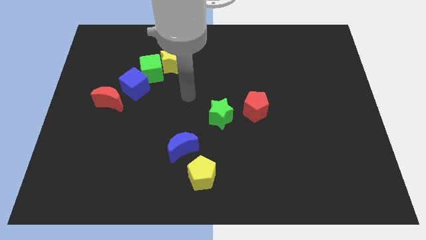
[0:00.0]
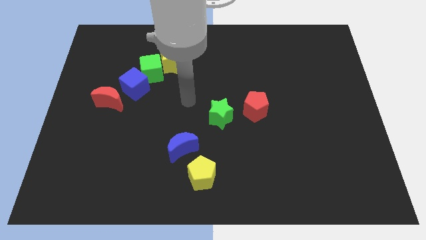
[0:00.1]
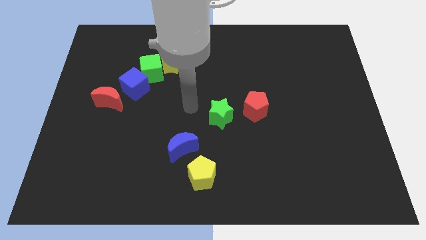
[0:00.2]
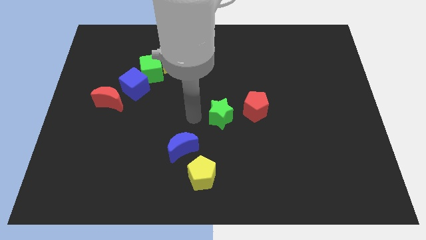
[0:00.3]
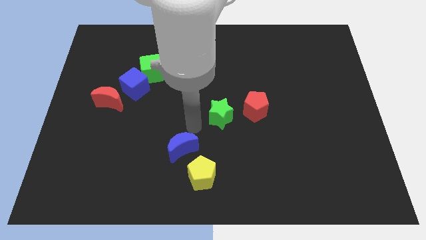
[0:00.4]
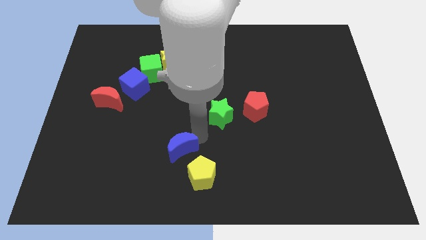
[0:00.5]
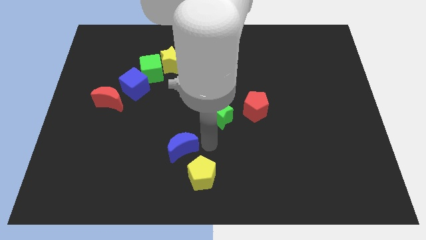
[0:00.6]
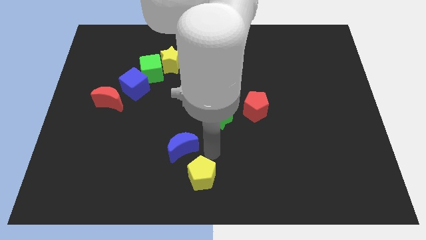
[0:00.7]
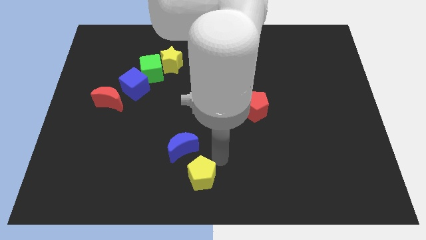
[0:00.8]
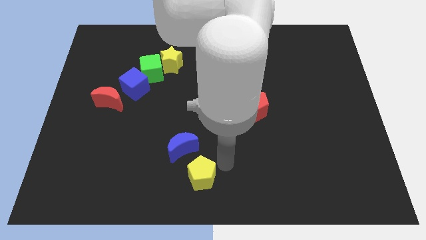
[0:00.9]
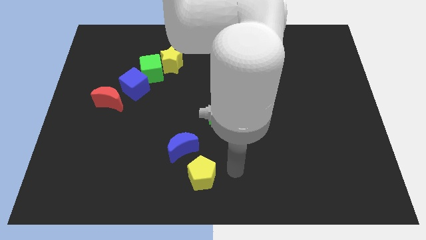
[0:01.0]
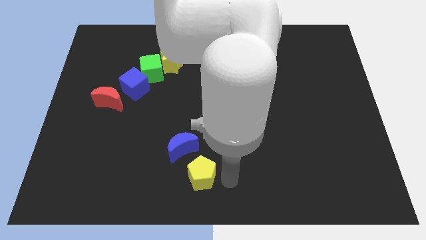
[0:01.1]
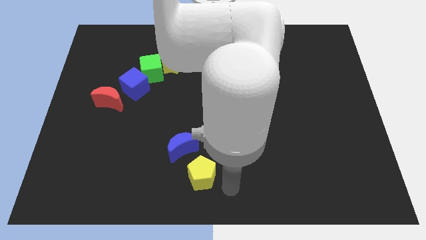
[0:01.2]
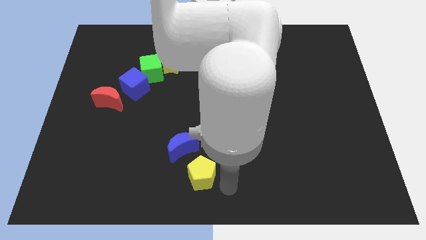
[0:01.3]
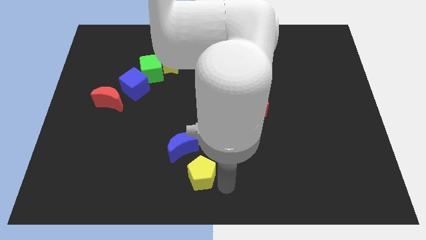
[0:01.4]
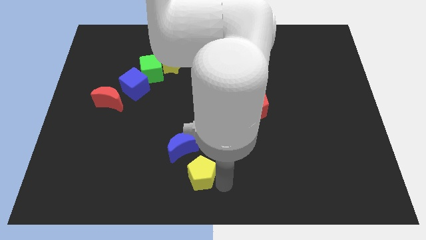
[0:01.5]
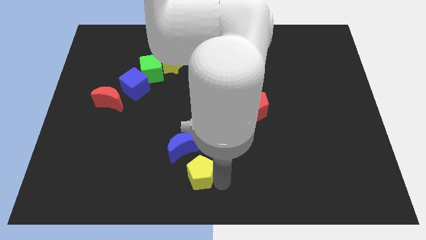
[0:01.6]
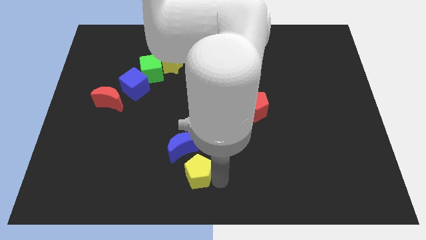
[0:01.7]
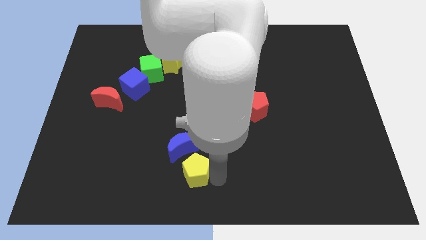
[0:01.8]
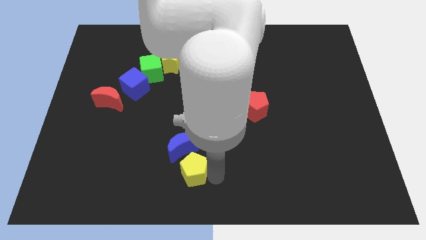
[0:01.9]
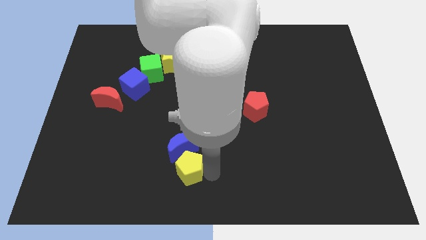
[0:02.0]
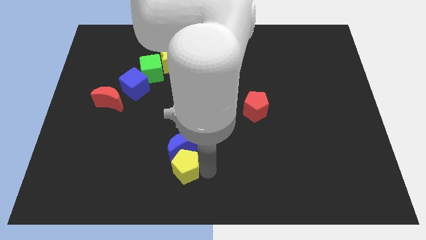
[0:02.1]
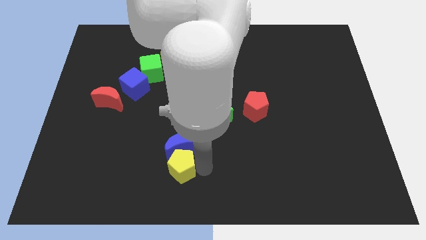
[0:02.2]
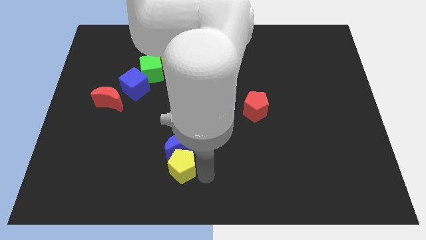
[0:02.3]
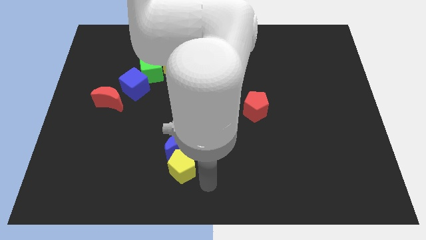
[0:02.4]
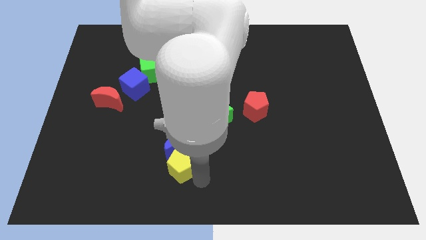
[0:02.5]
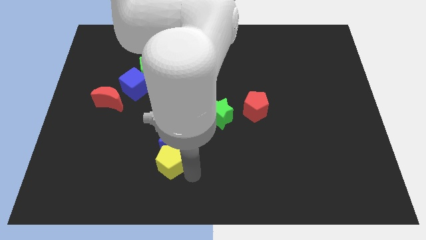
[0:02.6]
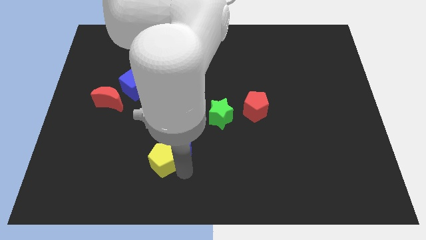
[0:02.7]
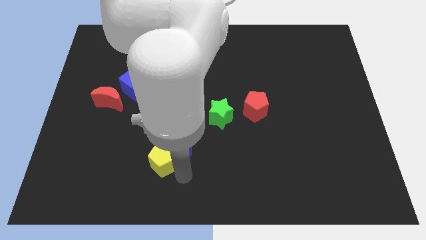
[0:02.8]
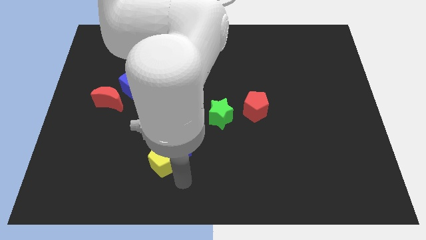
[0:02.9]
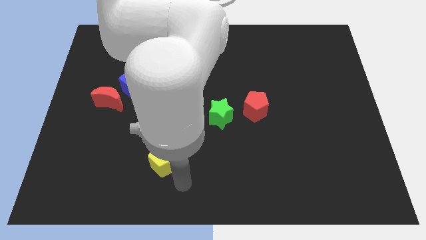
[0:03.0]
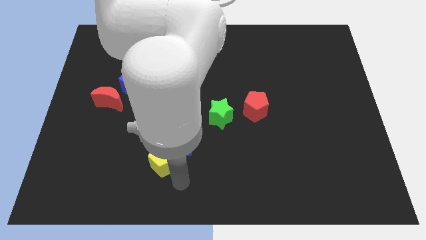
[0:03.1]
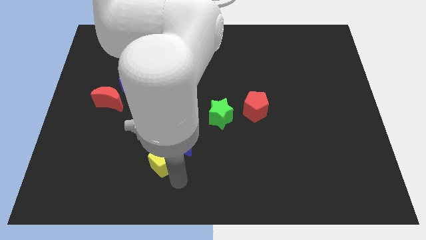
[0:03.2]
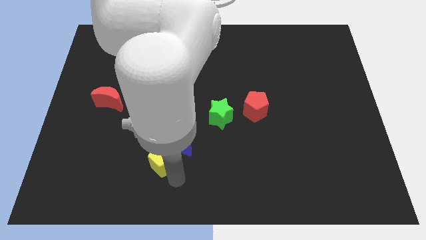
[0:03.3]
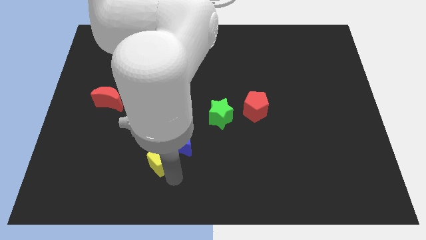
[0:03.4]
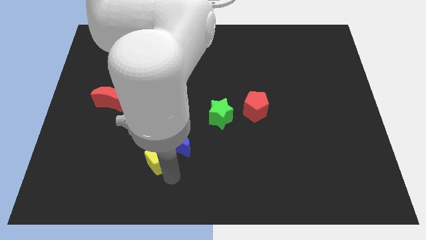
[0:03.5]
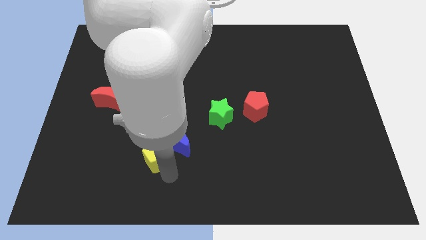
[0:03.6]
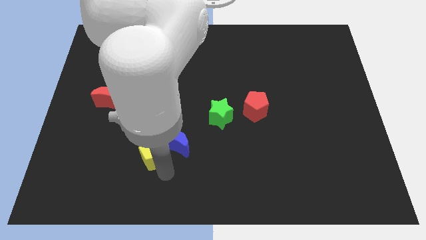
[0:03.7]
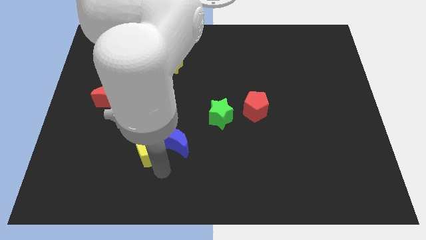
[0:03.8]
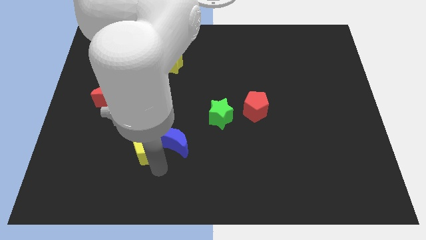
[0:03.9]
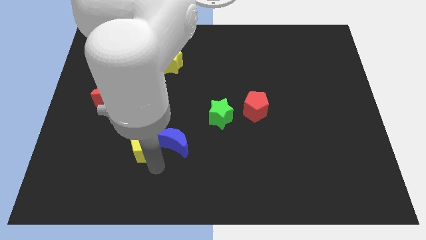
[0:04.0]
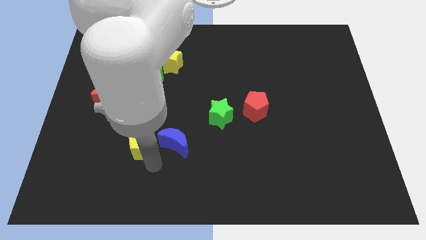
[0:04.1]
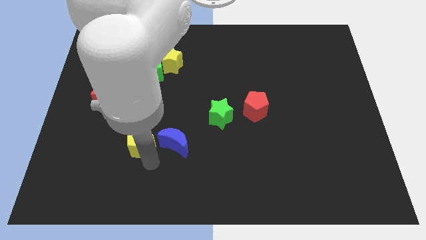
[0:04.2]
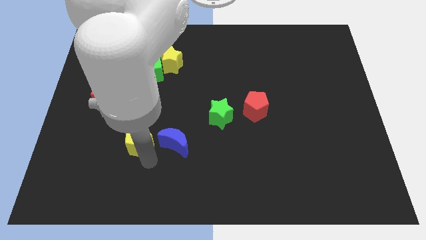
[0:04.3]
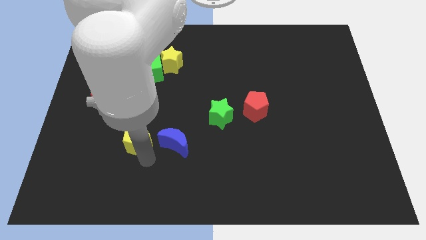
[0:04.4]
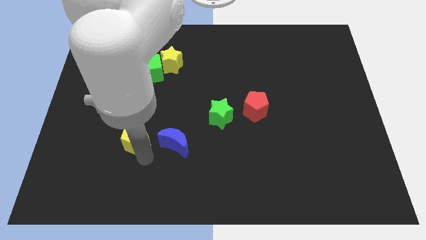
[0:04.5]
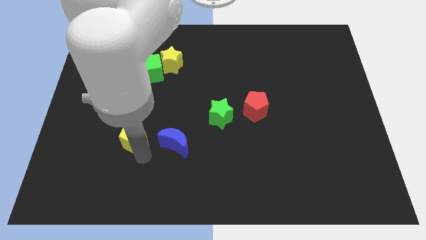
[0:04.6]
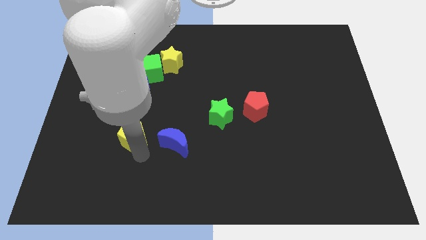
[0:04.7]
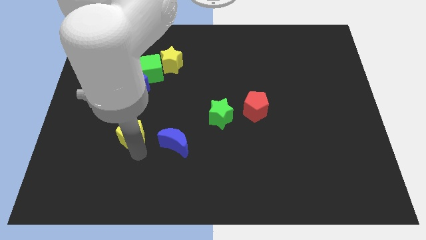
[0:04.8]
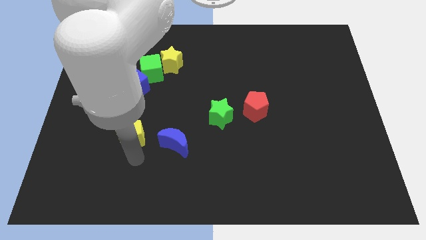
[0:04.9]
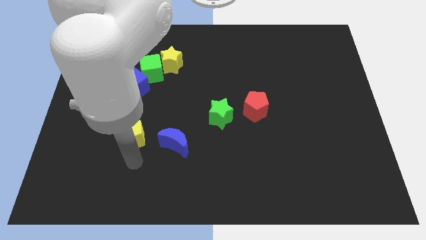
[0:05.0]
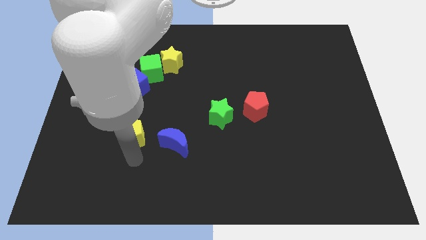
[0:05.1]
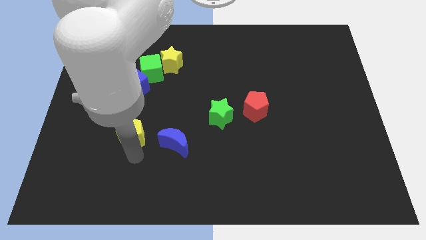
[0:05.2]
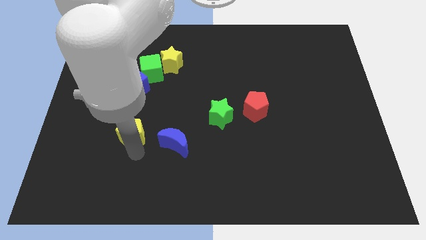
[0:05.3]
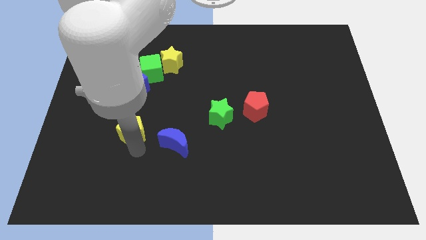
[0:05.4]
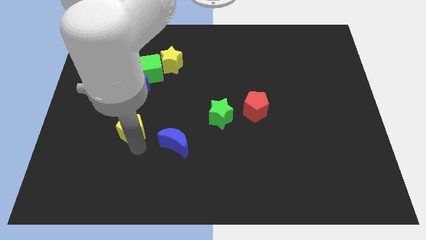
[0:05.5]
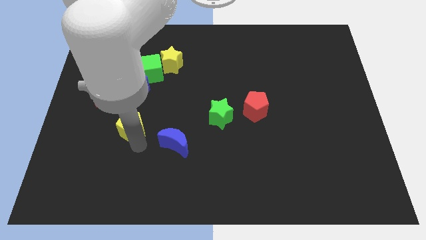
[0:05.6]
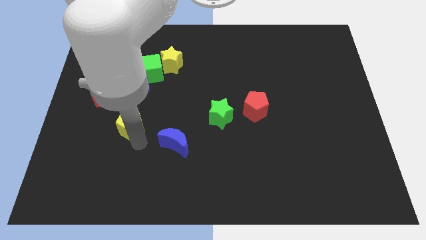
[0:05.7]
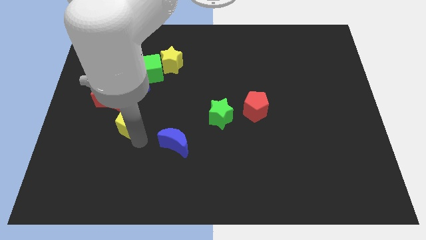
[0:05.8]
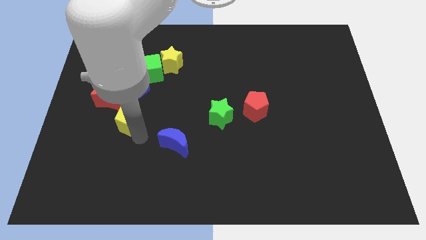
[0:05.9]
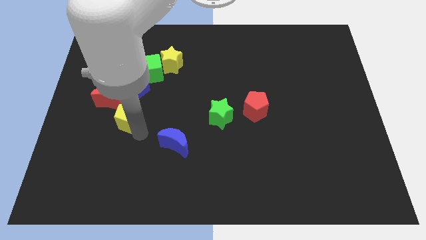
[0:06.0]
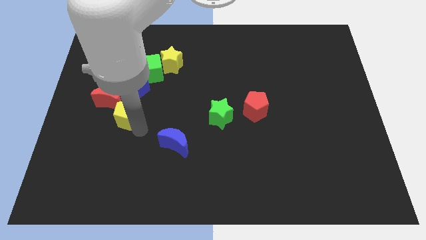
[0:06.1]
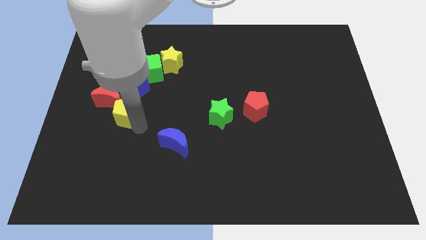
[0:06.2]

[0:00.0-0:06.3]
push the yellow pentagon towards the red moon
